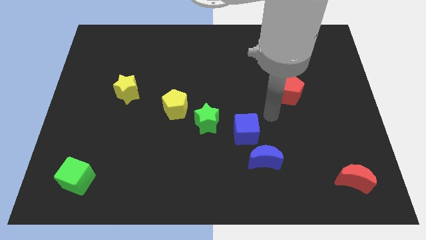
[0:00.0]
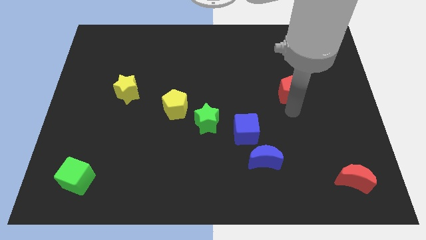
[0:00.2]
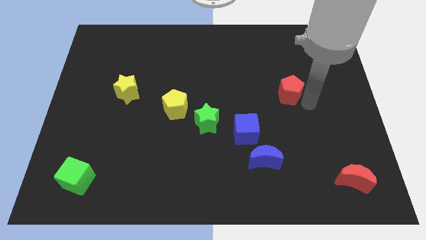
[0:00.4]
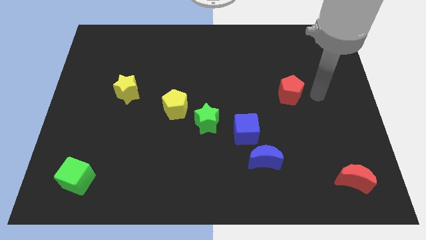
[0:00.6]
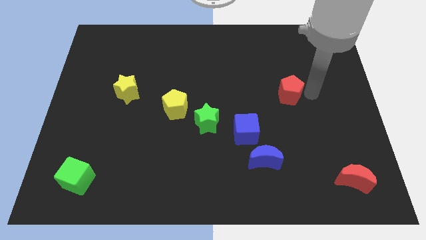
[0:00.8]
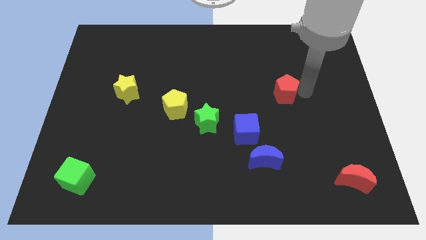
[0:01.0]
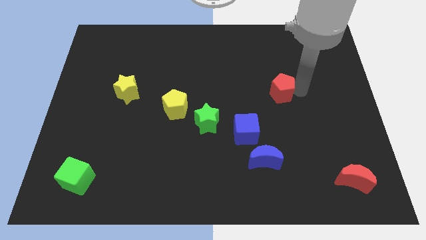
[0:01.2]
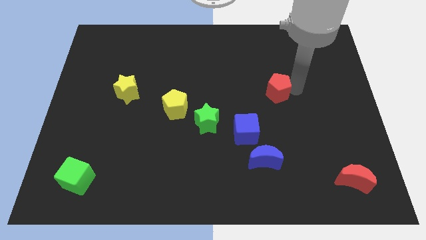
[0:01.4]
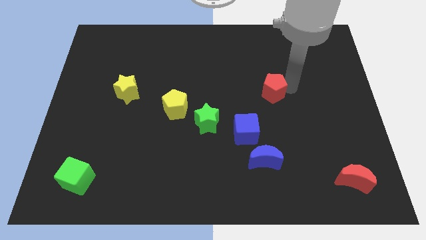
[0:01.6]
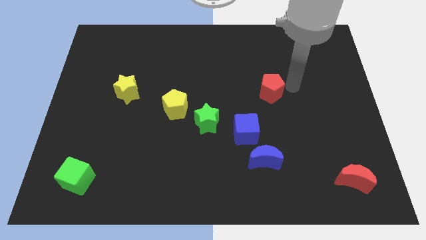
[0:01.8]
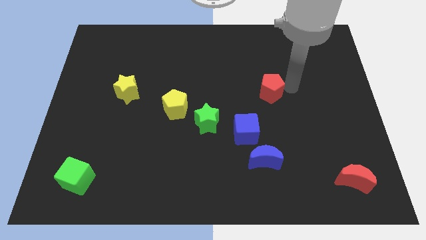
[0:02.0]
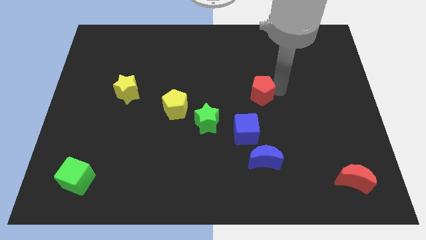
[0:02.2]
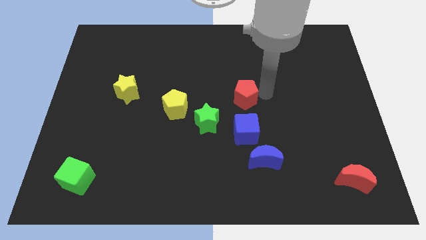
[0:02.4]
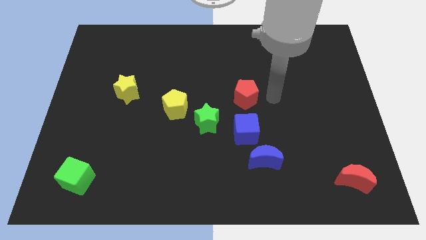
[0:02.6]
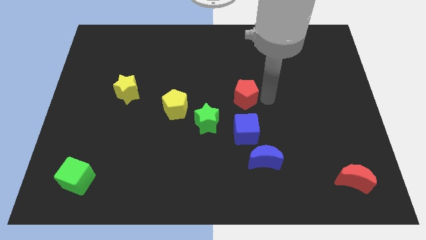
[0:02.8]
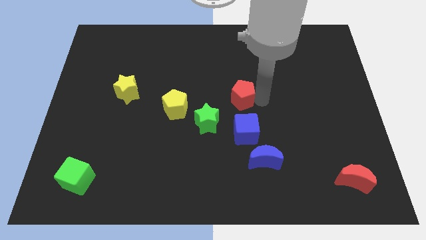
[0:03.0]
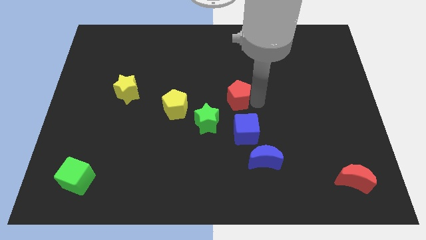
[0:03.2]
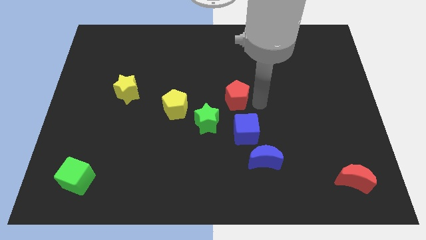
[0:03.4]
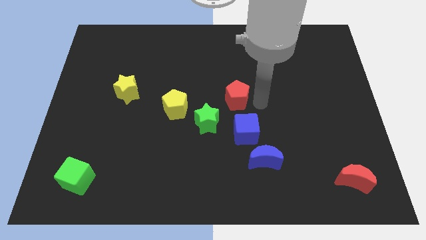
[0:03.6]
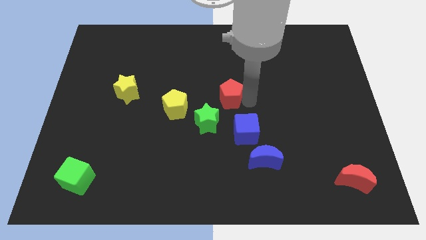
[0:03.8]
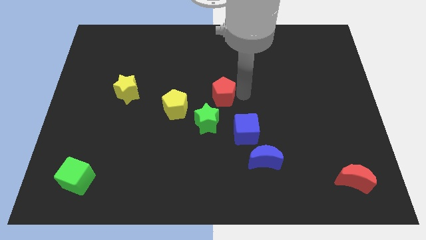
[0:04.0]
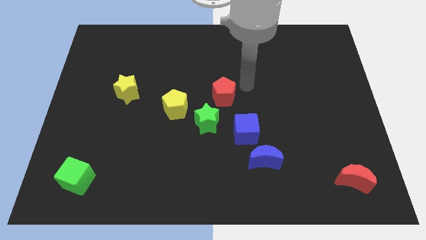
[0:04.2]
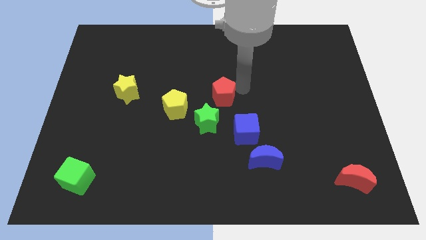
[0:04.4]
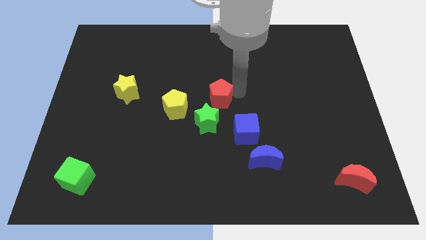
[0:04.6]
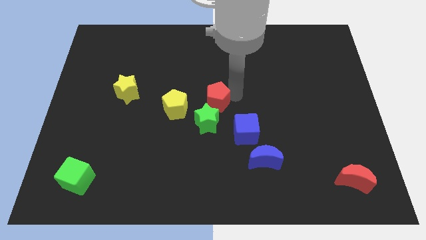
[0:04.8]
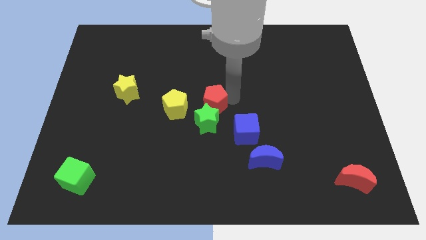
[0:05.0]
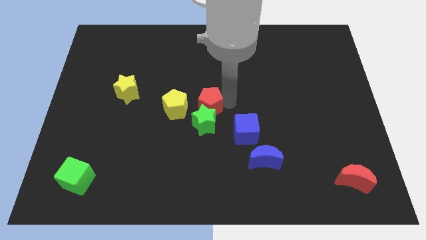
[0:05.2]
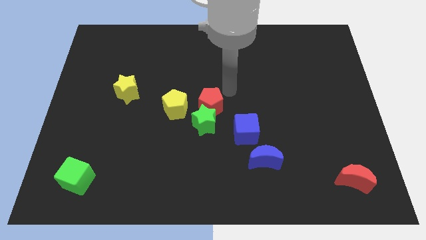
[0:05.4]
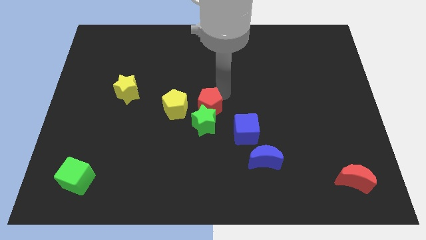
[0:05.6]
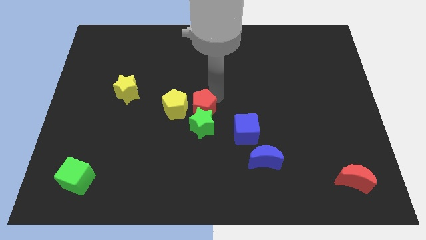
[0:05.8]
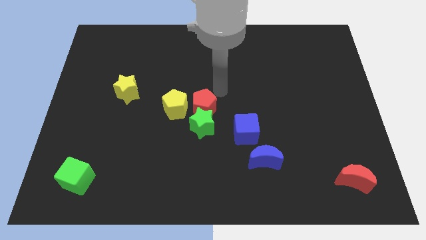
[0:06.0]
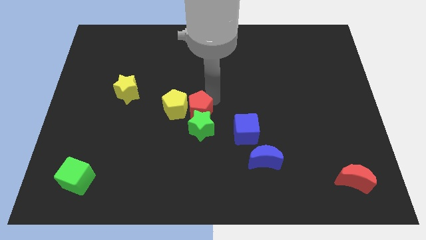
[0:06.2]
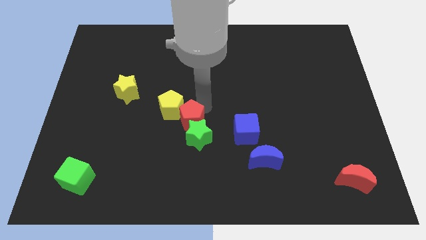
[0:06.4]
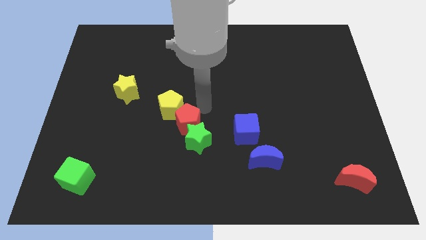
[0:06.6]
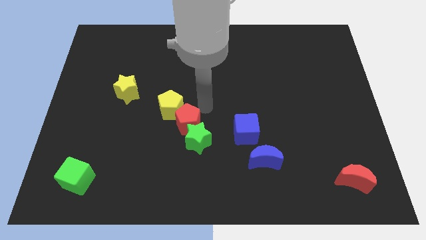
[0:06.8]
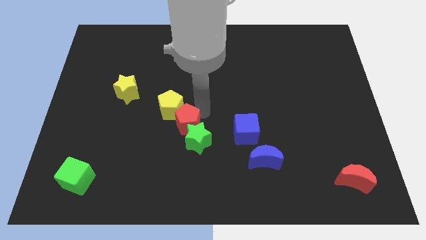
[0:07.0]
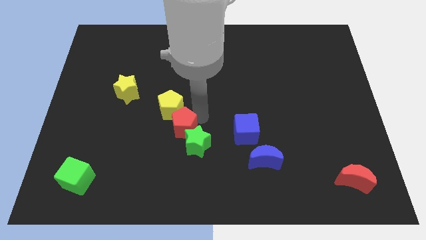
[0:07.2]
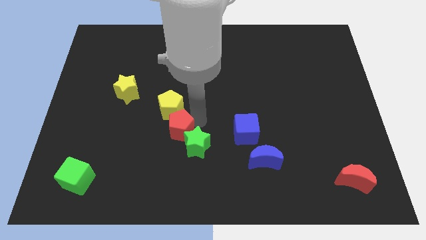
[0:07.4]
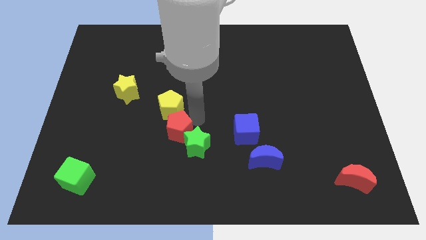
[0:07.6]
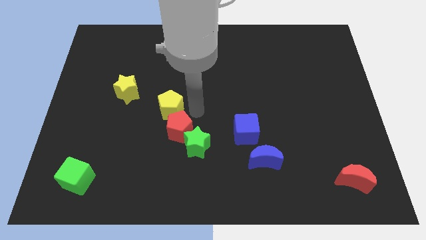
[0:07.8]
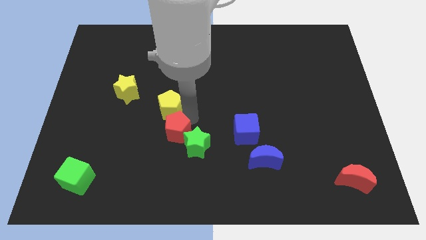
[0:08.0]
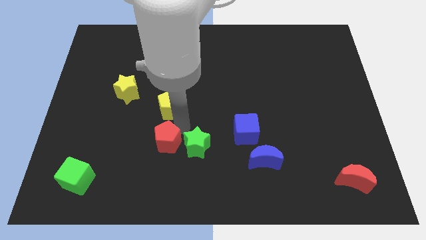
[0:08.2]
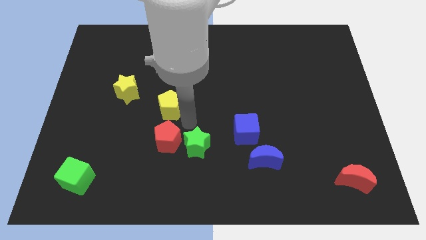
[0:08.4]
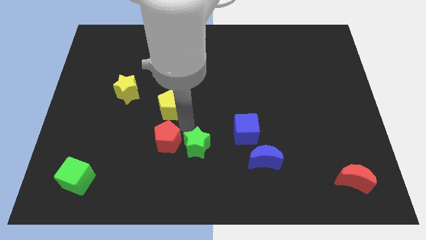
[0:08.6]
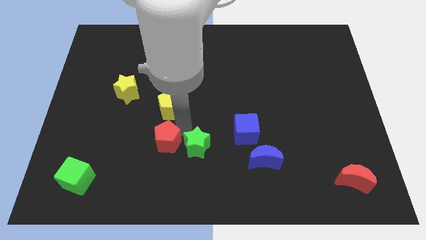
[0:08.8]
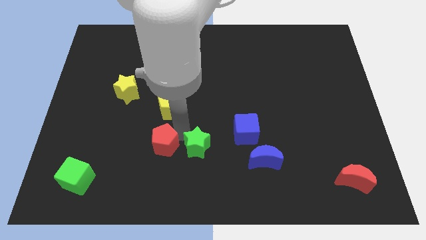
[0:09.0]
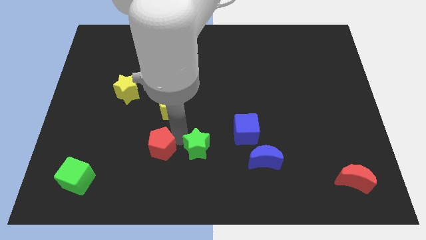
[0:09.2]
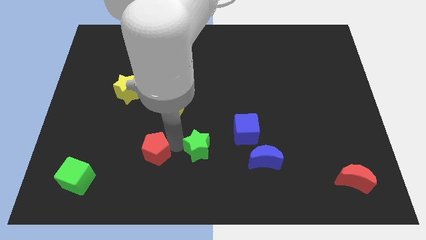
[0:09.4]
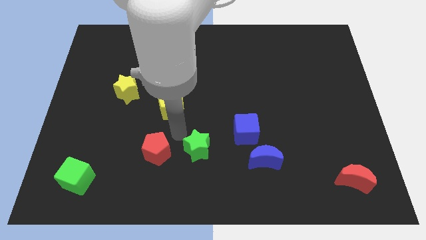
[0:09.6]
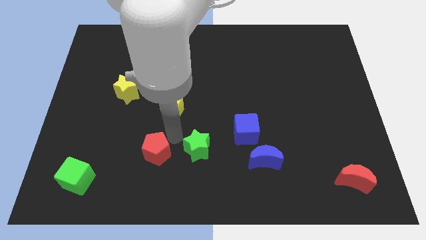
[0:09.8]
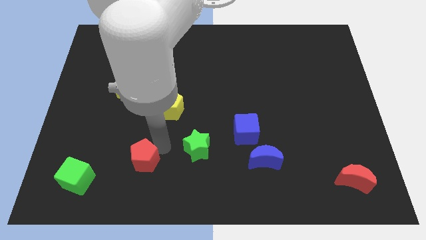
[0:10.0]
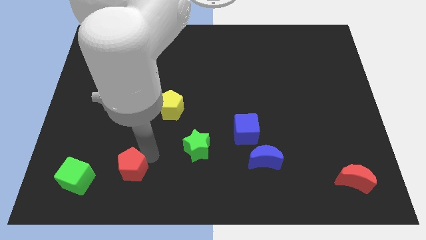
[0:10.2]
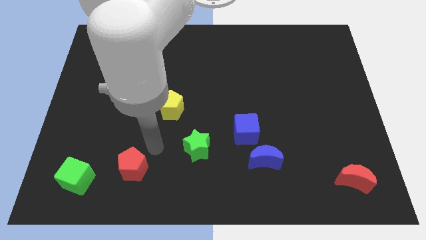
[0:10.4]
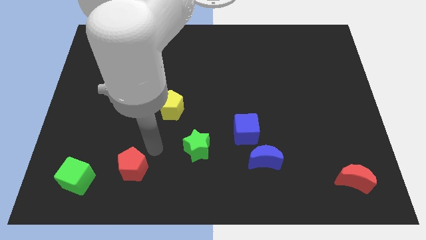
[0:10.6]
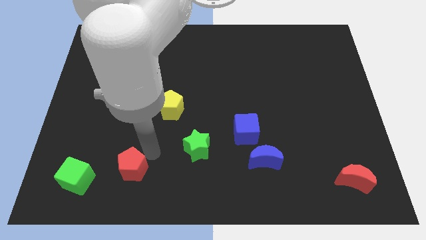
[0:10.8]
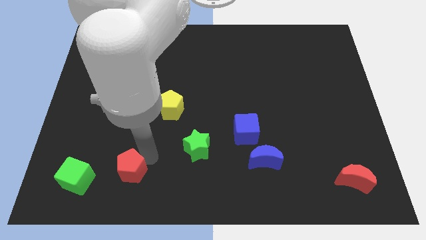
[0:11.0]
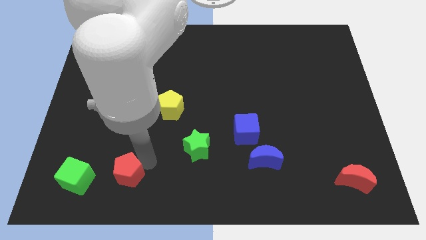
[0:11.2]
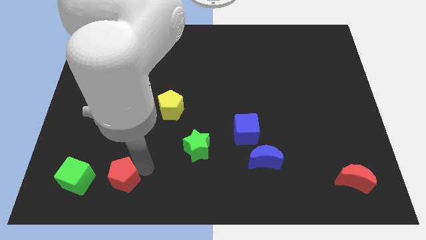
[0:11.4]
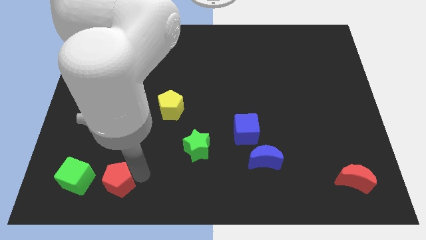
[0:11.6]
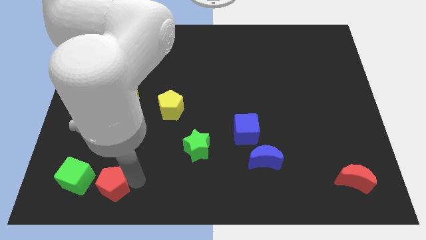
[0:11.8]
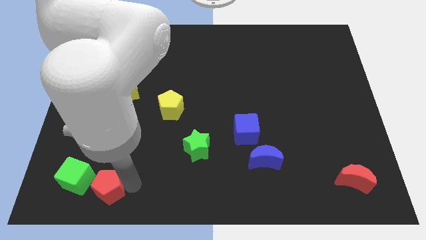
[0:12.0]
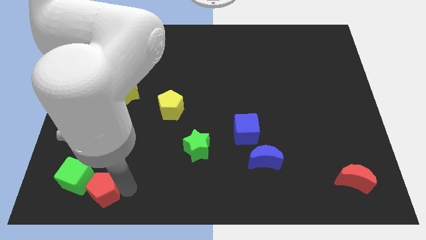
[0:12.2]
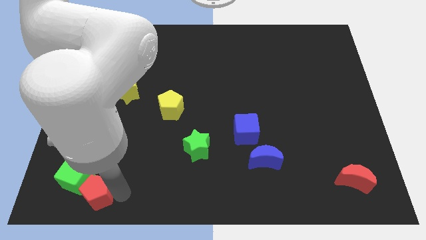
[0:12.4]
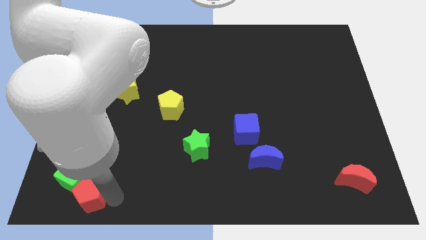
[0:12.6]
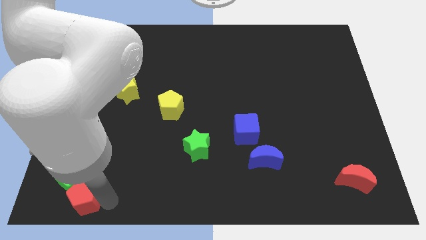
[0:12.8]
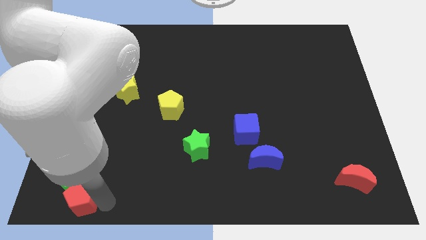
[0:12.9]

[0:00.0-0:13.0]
slide the red pentagon to the bottom left of the board
